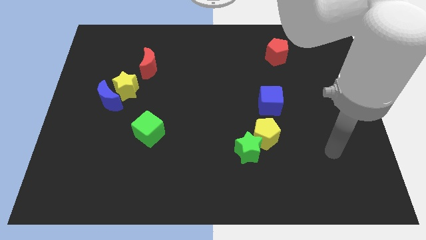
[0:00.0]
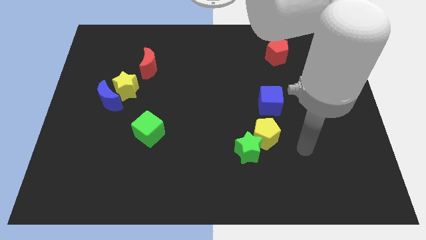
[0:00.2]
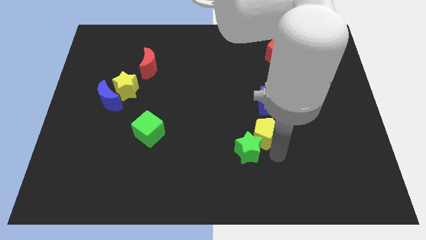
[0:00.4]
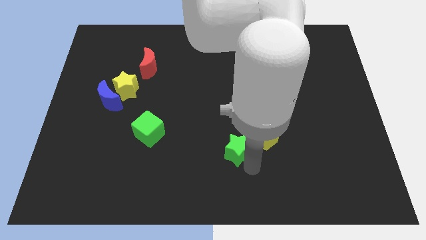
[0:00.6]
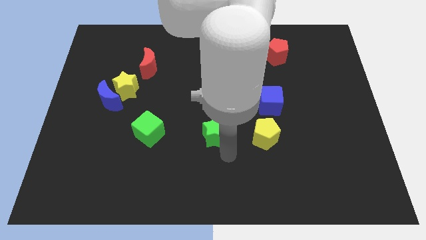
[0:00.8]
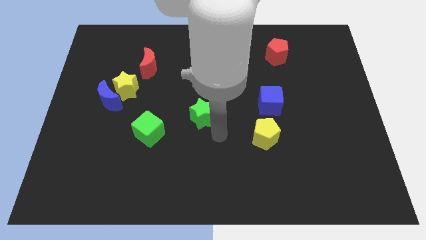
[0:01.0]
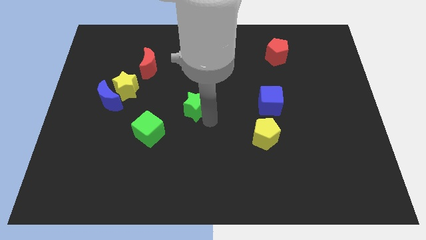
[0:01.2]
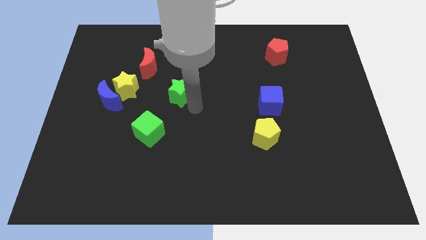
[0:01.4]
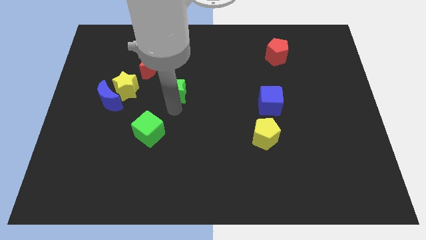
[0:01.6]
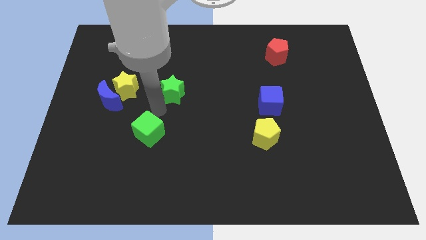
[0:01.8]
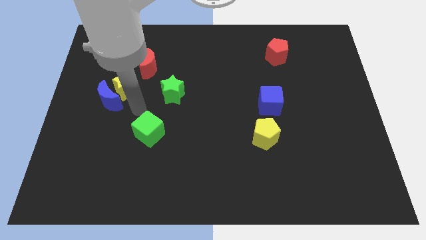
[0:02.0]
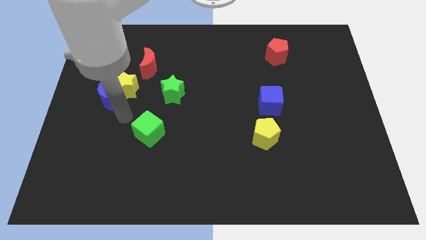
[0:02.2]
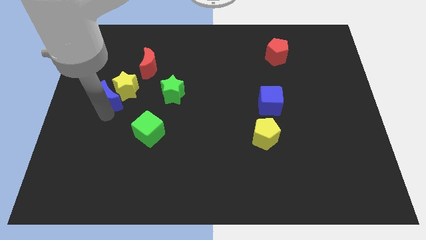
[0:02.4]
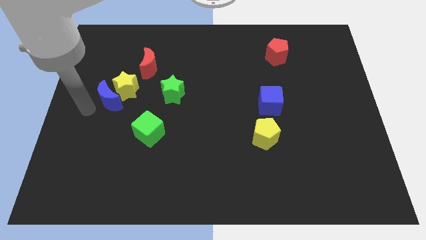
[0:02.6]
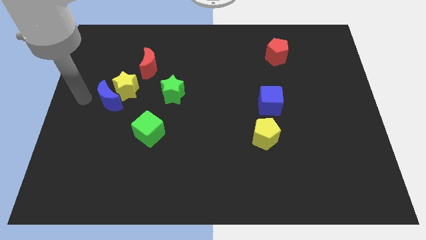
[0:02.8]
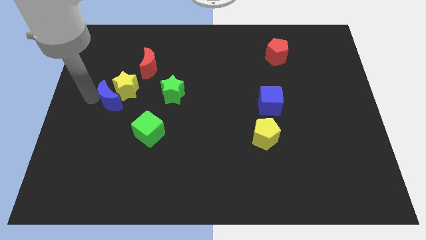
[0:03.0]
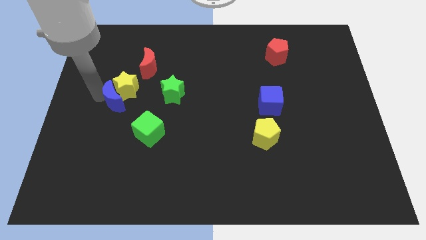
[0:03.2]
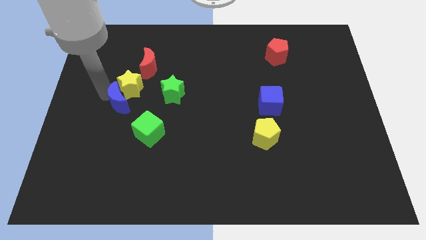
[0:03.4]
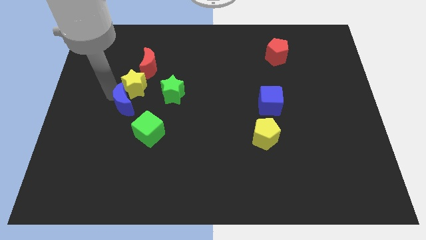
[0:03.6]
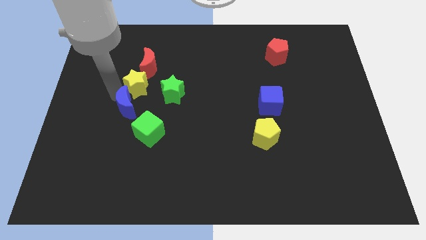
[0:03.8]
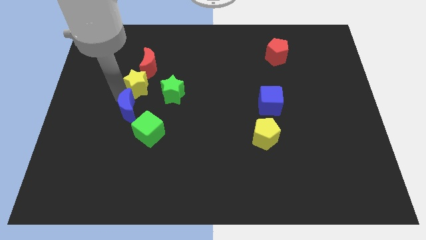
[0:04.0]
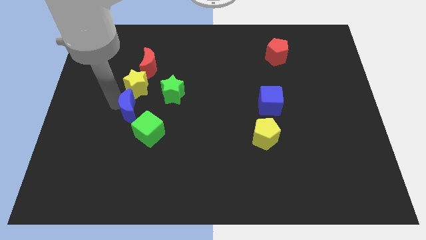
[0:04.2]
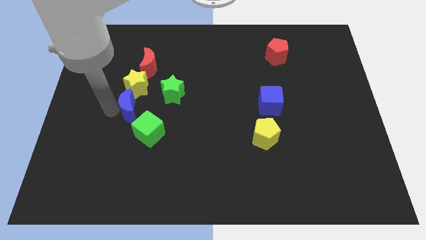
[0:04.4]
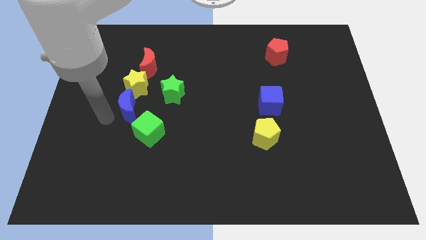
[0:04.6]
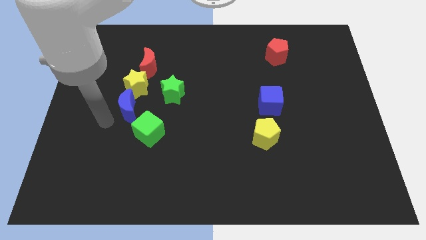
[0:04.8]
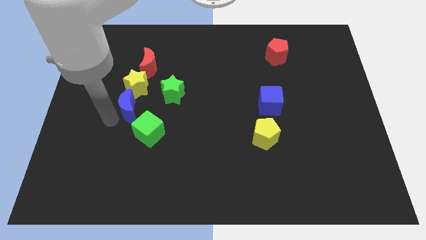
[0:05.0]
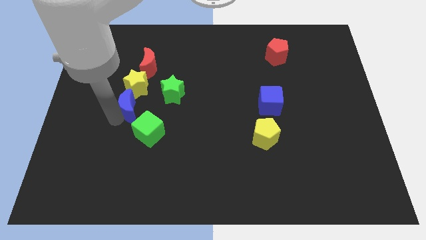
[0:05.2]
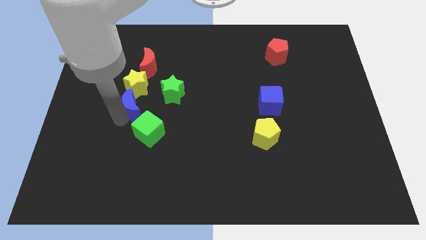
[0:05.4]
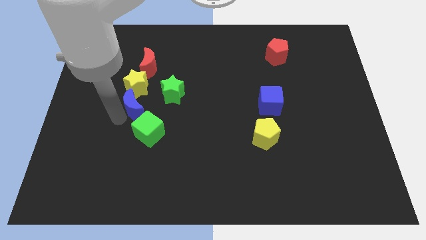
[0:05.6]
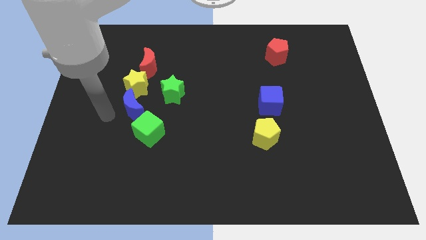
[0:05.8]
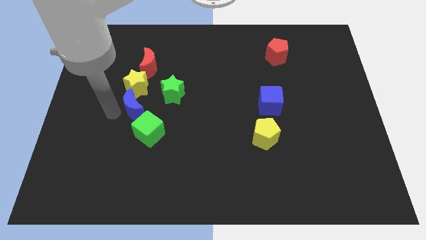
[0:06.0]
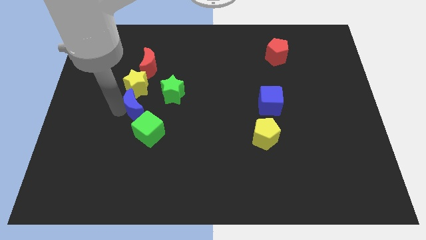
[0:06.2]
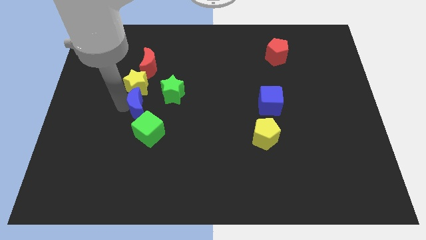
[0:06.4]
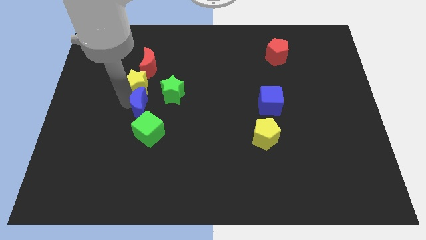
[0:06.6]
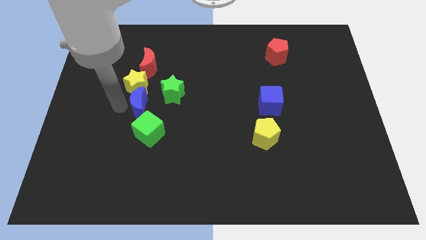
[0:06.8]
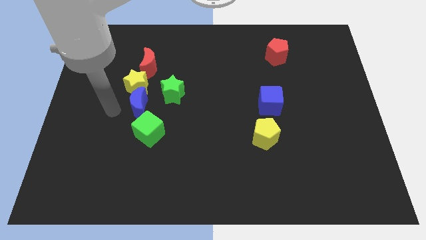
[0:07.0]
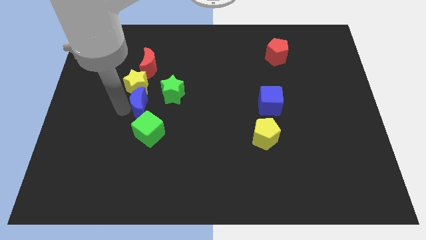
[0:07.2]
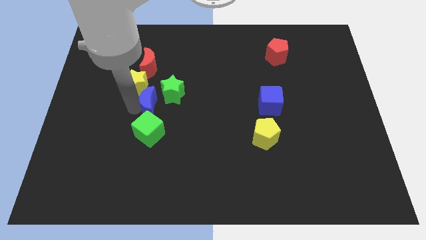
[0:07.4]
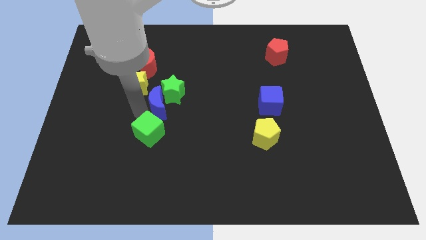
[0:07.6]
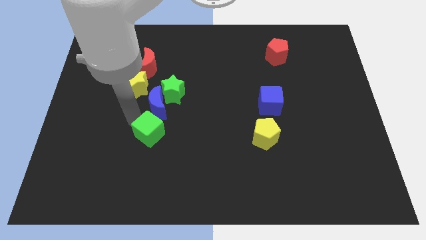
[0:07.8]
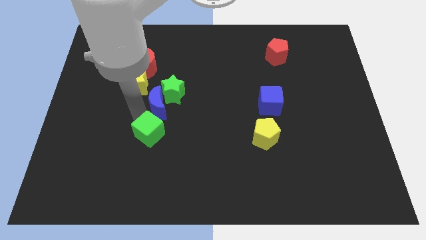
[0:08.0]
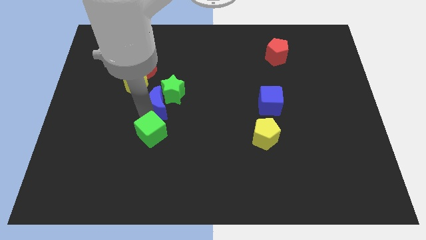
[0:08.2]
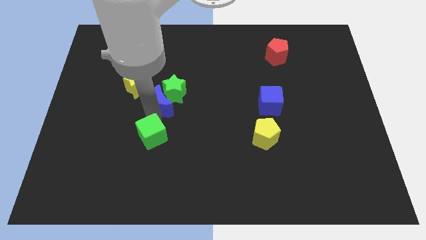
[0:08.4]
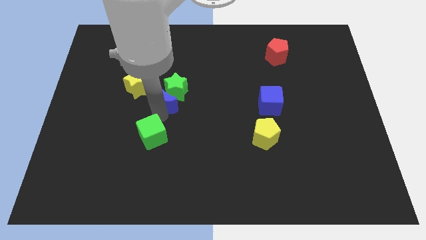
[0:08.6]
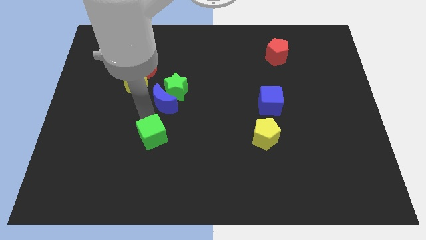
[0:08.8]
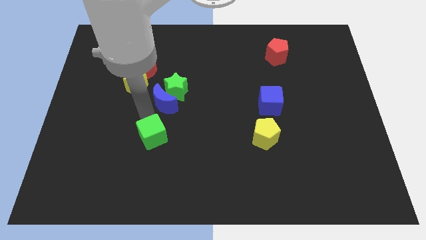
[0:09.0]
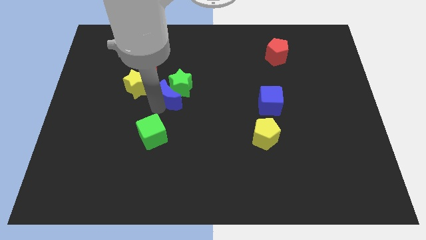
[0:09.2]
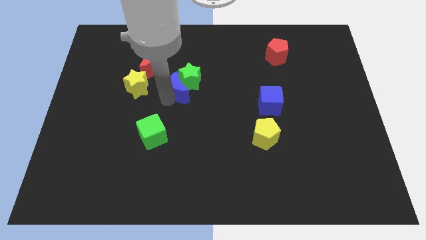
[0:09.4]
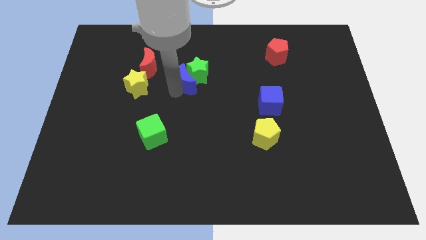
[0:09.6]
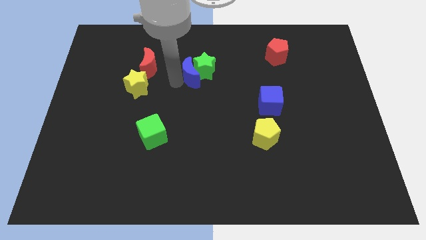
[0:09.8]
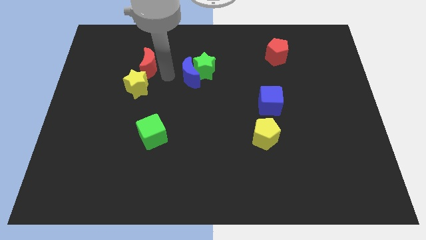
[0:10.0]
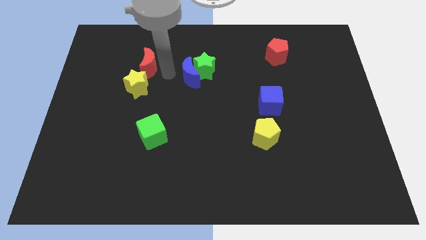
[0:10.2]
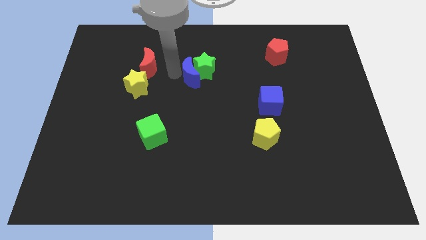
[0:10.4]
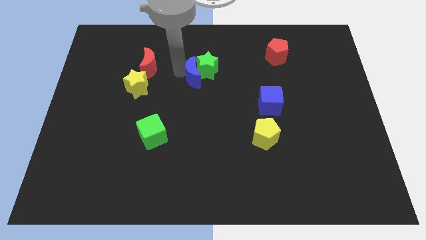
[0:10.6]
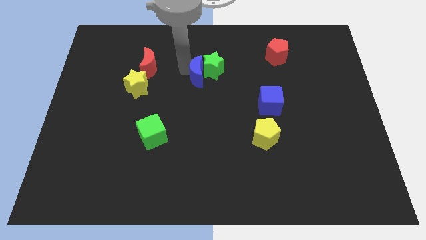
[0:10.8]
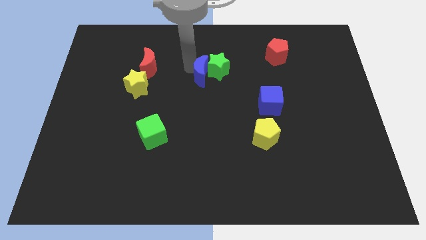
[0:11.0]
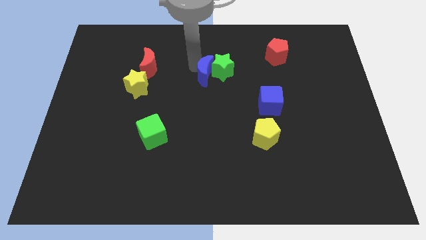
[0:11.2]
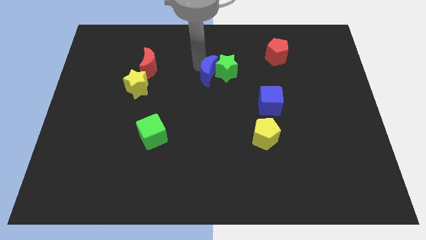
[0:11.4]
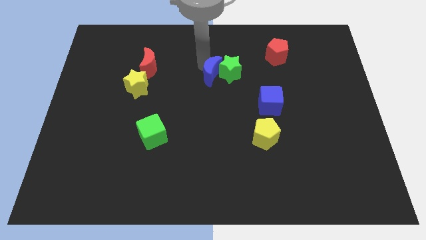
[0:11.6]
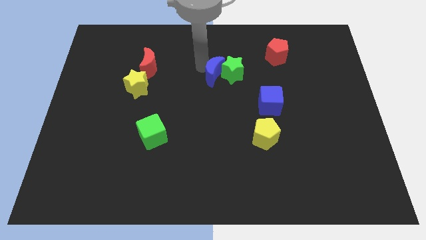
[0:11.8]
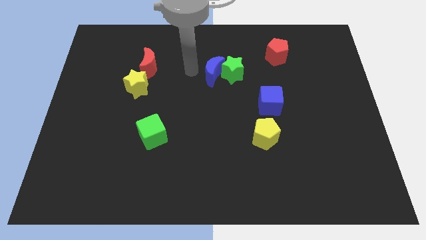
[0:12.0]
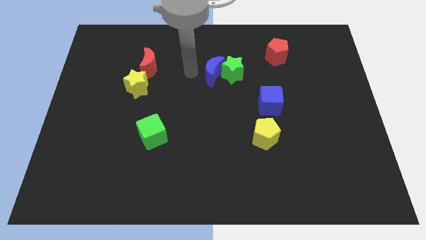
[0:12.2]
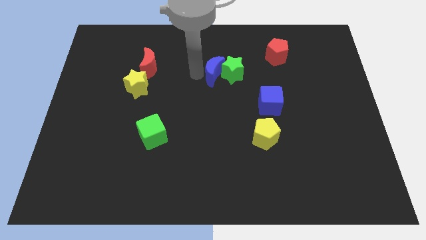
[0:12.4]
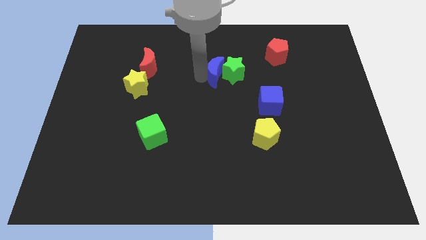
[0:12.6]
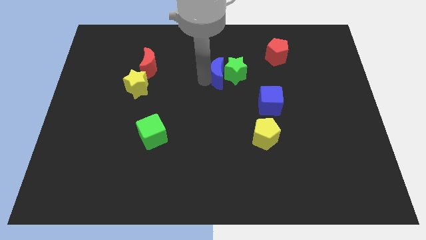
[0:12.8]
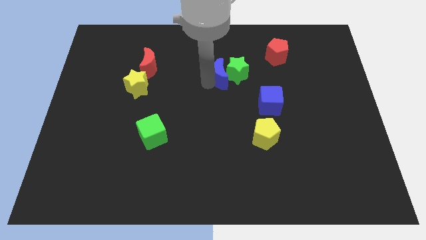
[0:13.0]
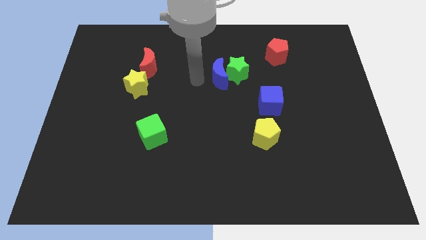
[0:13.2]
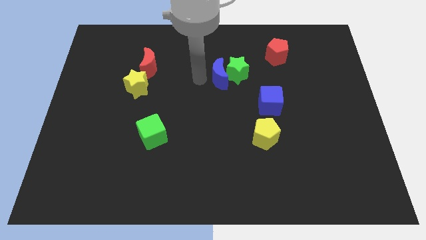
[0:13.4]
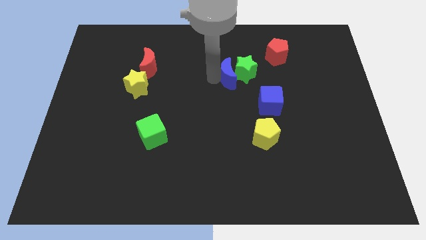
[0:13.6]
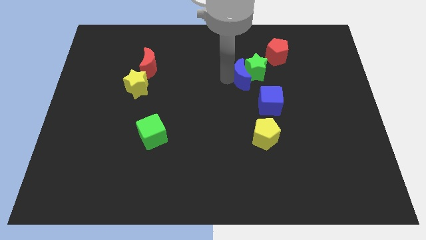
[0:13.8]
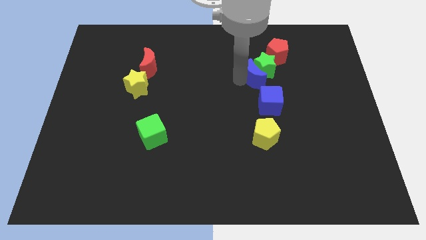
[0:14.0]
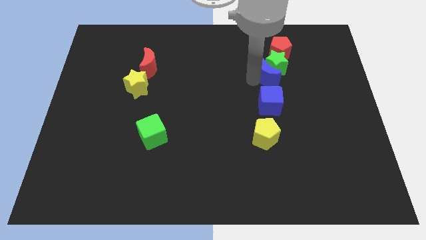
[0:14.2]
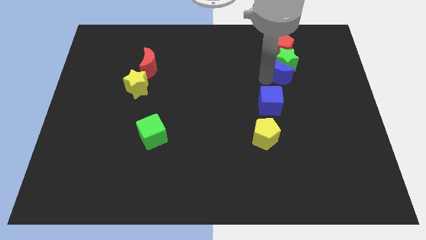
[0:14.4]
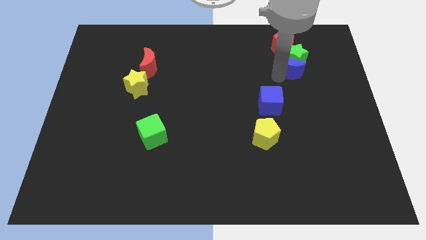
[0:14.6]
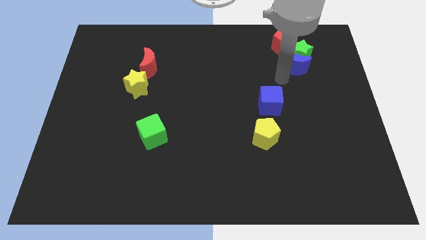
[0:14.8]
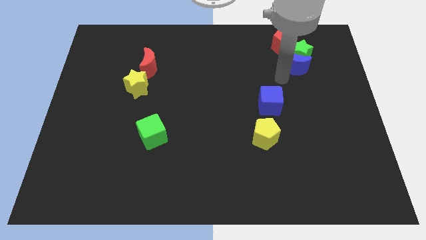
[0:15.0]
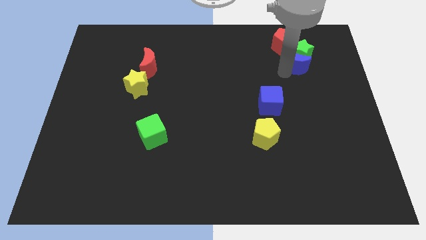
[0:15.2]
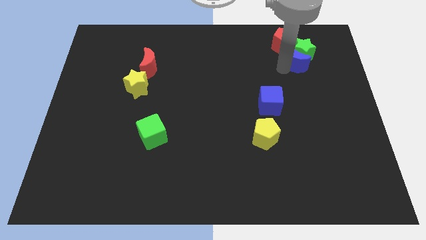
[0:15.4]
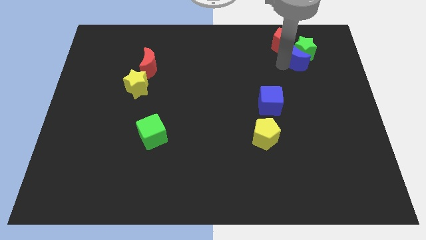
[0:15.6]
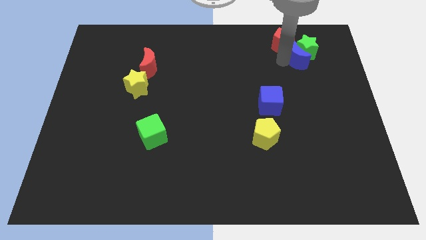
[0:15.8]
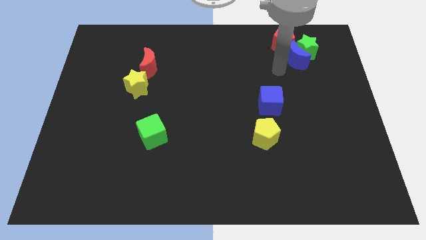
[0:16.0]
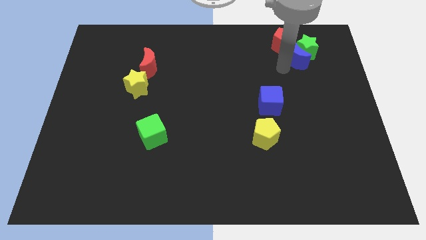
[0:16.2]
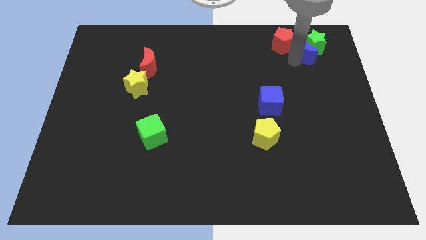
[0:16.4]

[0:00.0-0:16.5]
slide the blue moon just right of the red pentagon
